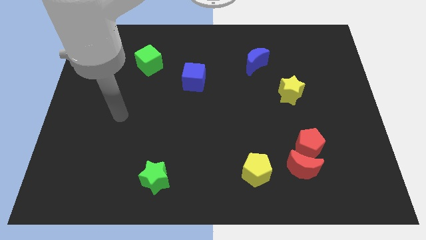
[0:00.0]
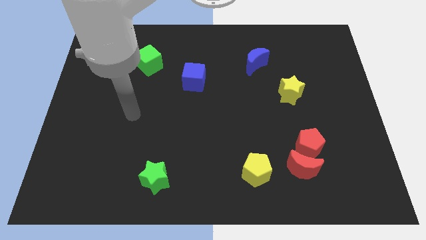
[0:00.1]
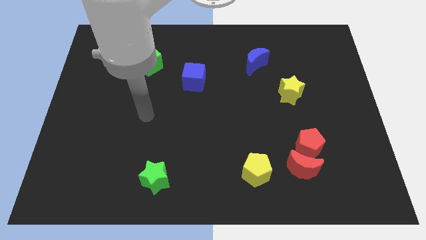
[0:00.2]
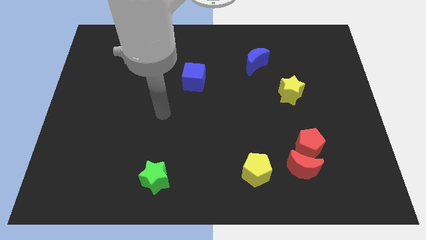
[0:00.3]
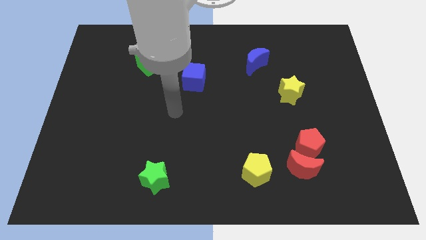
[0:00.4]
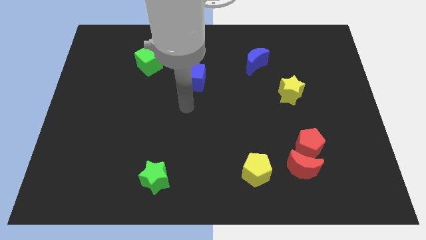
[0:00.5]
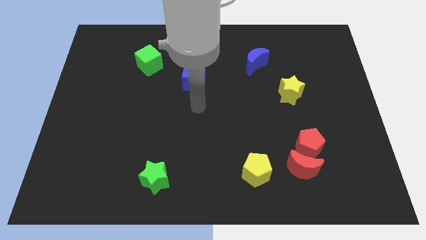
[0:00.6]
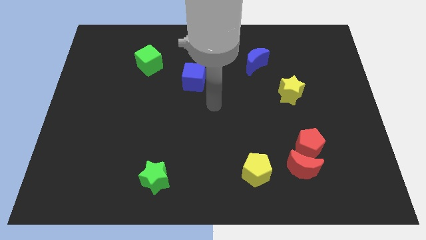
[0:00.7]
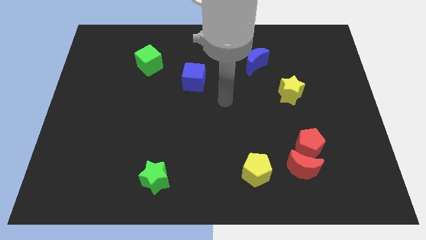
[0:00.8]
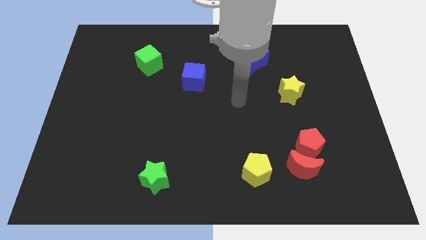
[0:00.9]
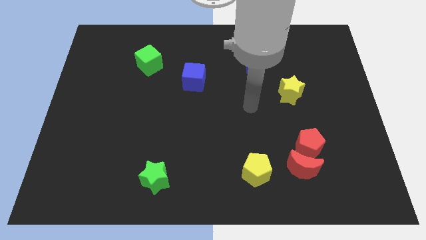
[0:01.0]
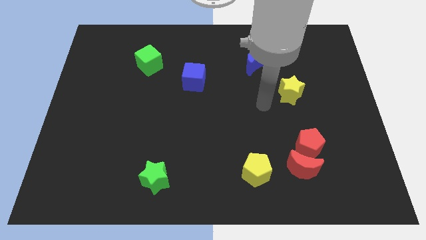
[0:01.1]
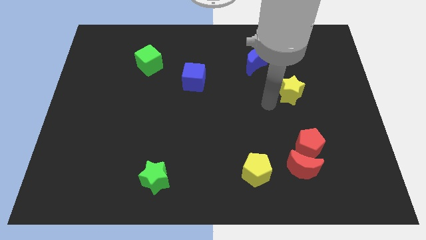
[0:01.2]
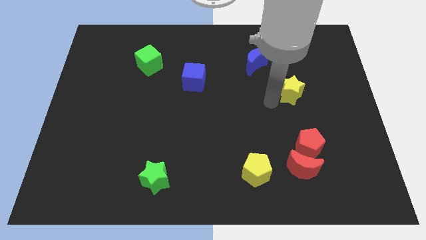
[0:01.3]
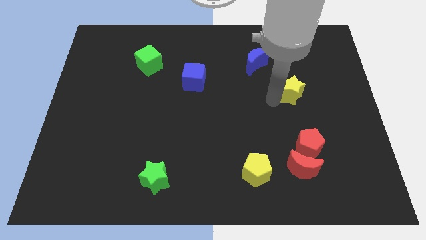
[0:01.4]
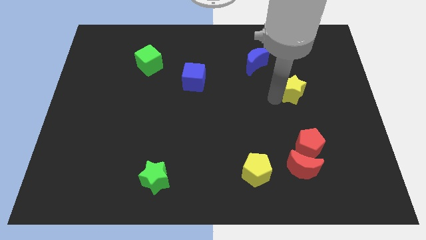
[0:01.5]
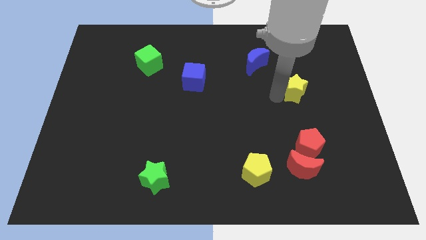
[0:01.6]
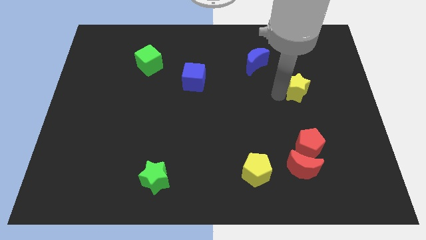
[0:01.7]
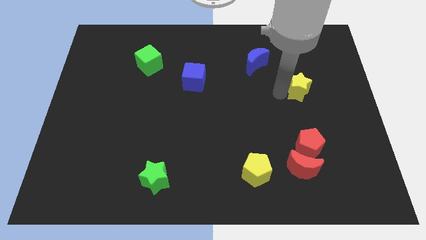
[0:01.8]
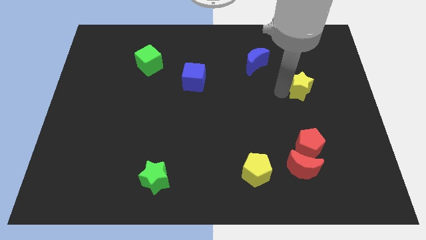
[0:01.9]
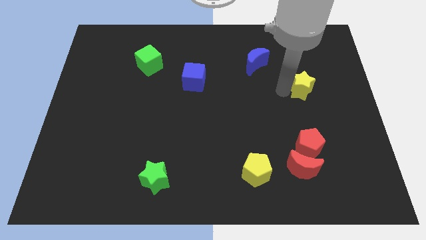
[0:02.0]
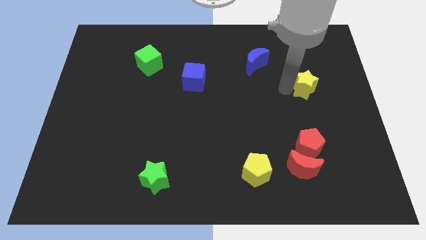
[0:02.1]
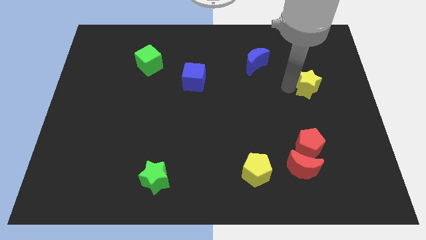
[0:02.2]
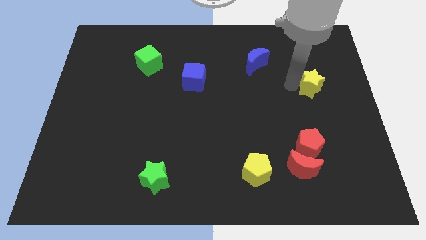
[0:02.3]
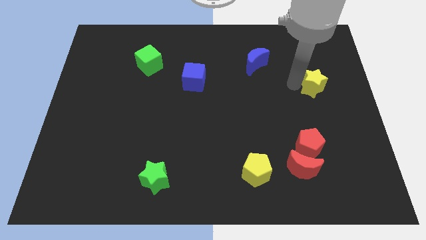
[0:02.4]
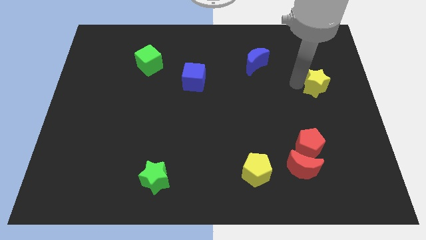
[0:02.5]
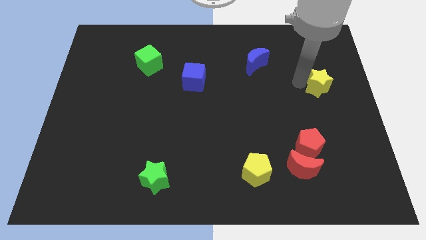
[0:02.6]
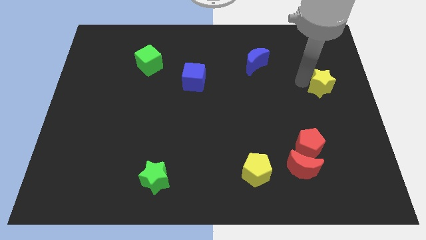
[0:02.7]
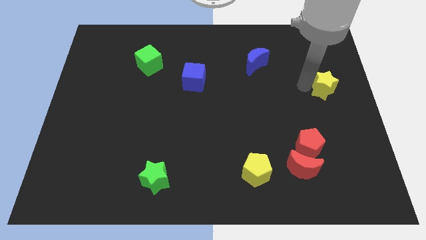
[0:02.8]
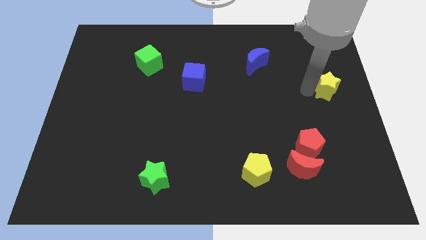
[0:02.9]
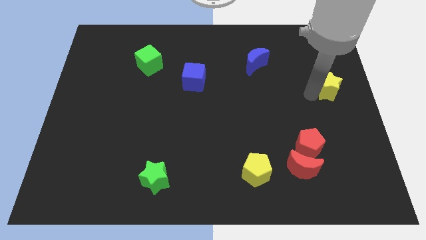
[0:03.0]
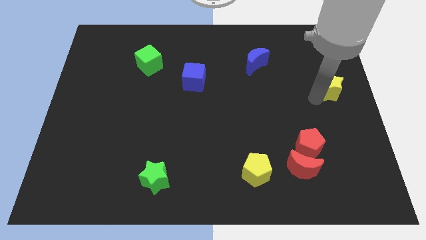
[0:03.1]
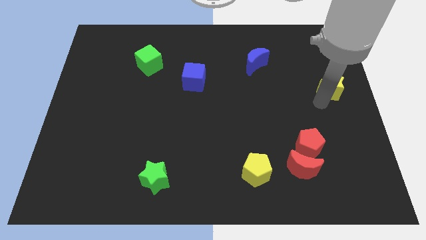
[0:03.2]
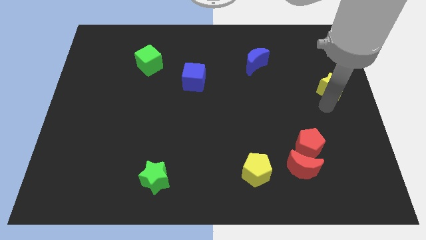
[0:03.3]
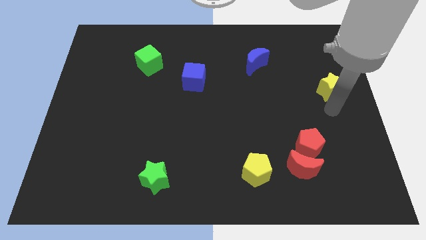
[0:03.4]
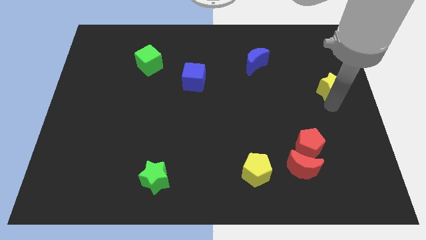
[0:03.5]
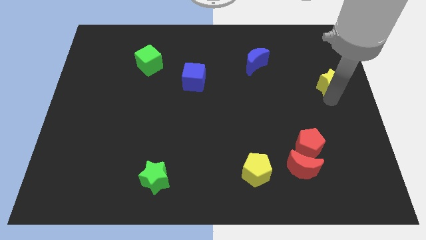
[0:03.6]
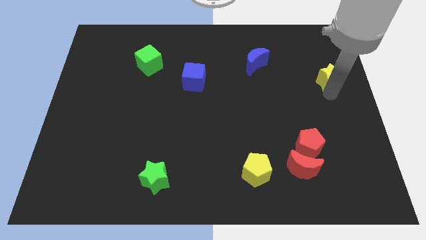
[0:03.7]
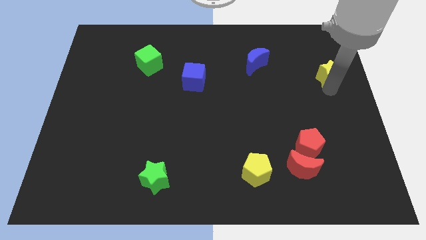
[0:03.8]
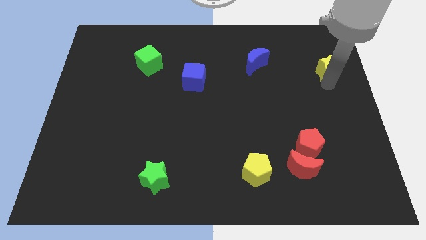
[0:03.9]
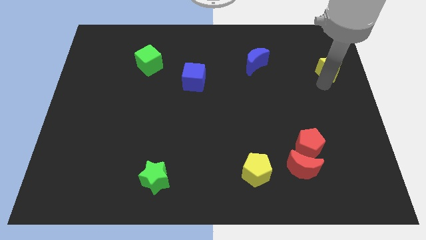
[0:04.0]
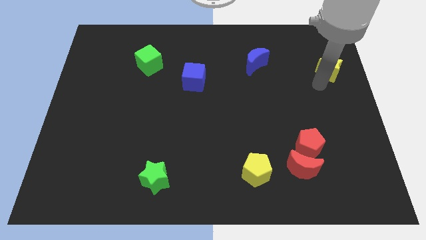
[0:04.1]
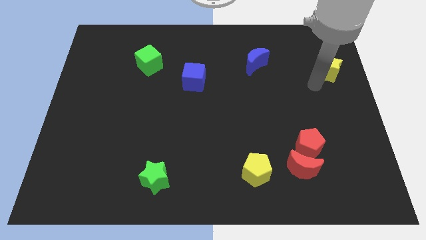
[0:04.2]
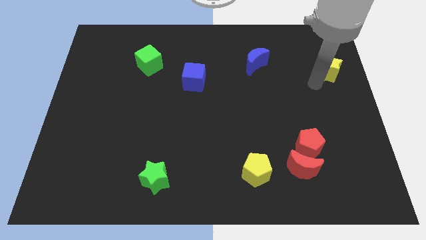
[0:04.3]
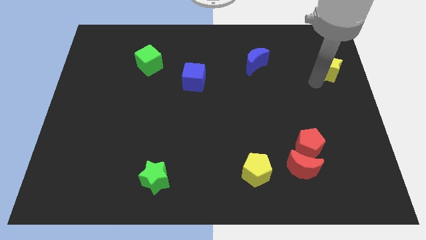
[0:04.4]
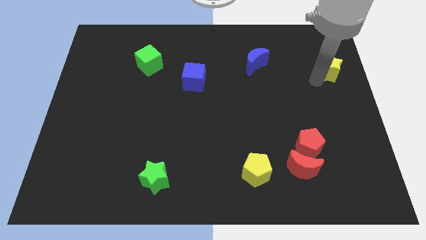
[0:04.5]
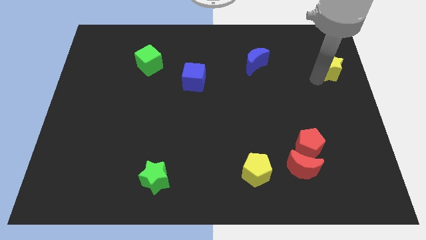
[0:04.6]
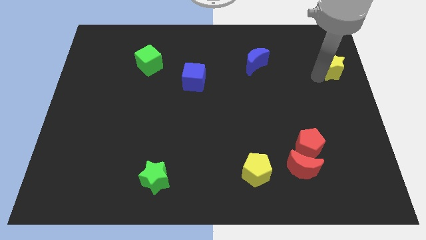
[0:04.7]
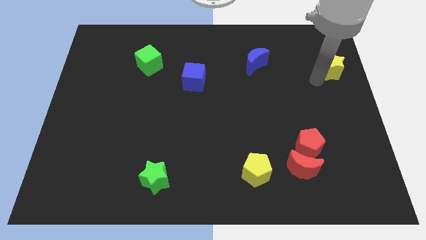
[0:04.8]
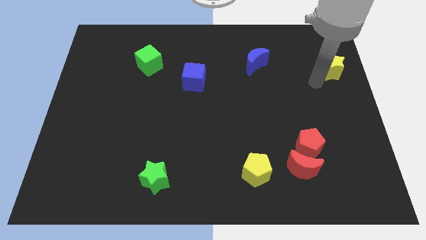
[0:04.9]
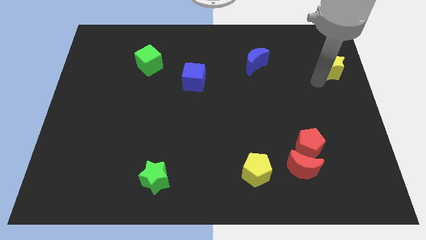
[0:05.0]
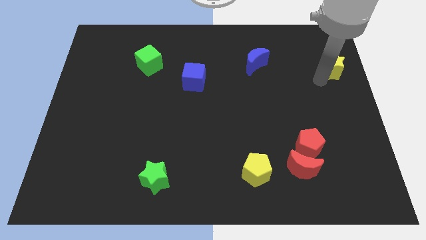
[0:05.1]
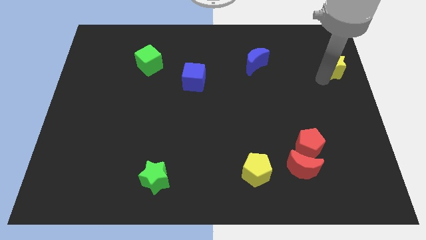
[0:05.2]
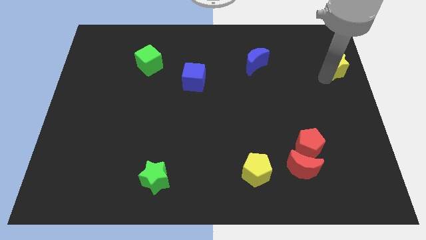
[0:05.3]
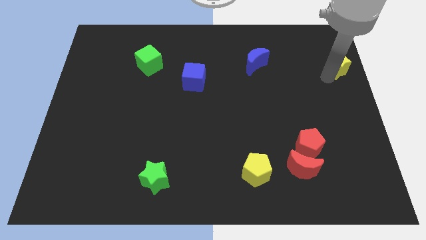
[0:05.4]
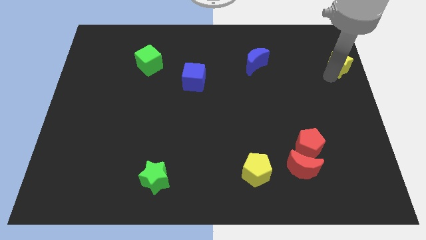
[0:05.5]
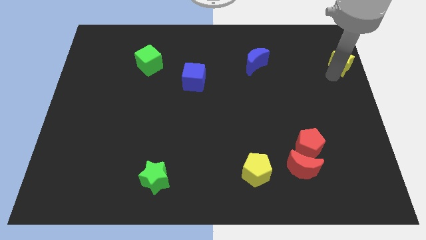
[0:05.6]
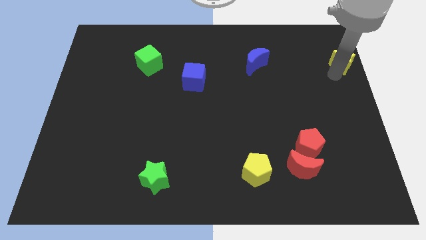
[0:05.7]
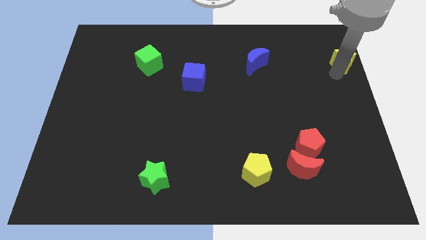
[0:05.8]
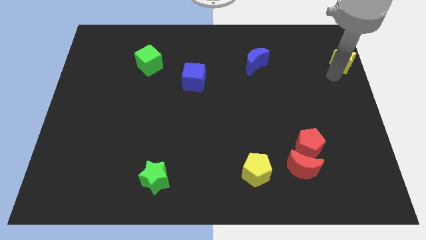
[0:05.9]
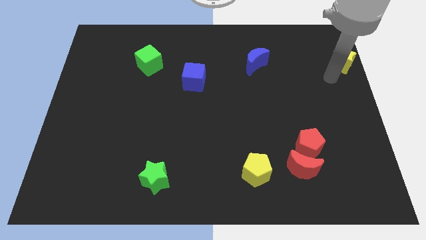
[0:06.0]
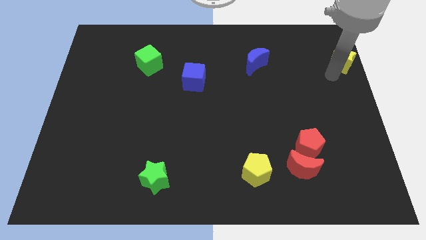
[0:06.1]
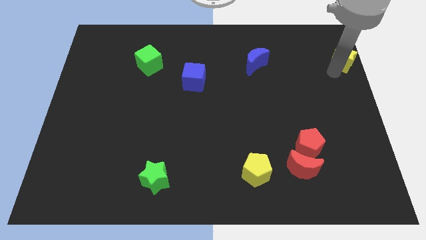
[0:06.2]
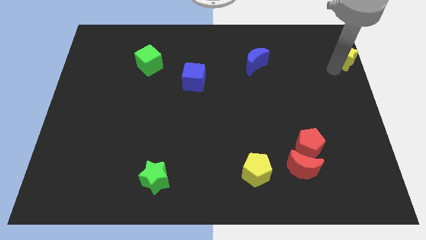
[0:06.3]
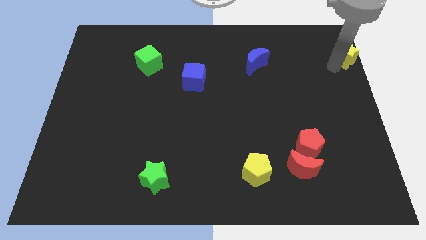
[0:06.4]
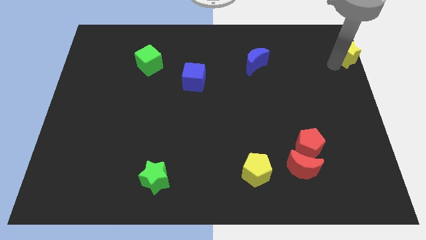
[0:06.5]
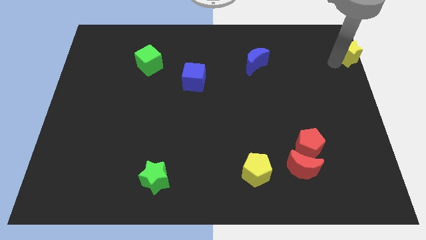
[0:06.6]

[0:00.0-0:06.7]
push the yellow star to the top right
